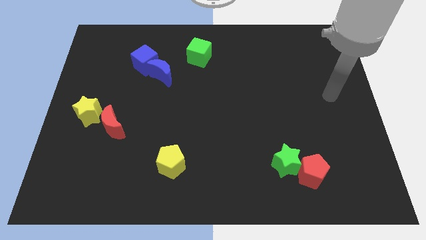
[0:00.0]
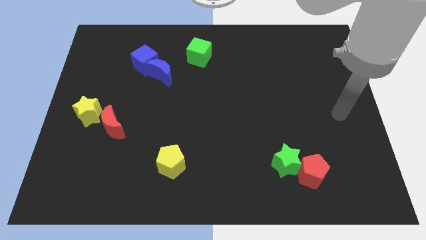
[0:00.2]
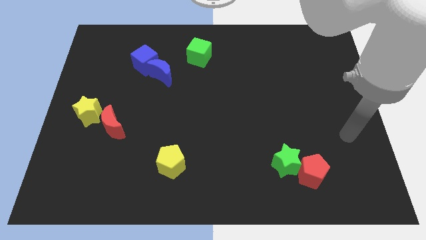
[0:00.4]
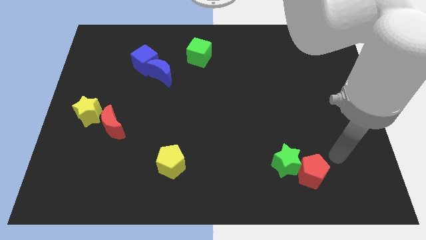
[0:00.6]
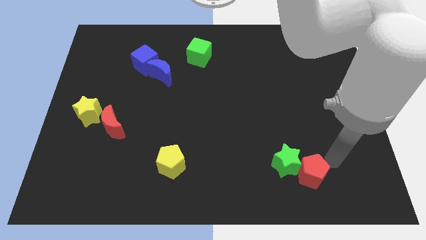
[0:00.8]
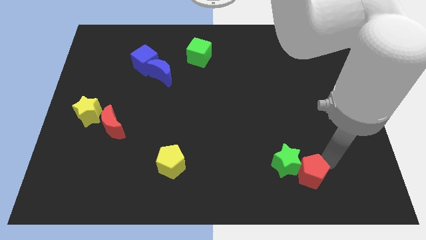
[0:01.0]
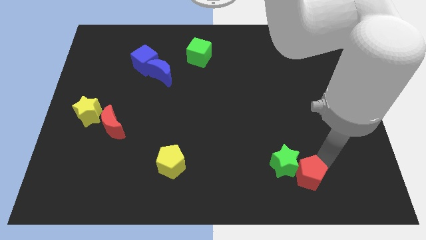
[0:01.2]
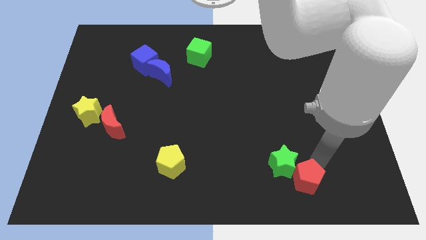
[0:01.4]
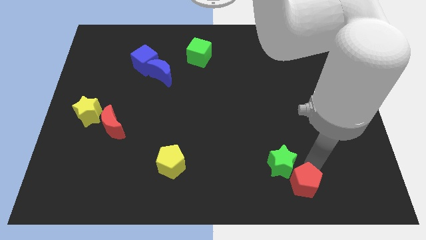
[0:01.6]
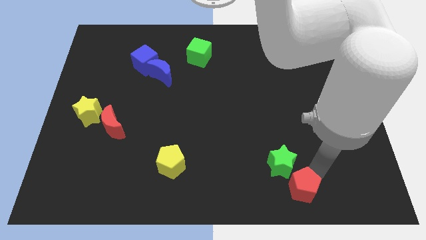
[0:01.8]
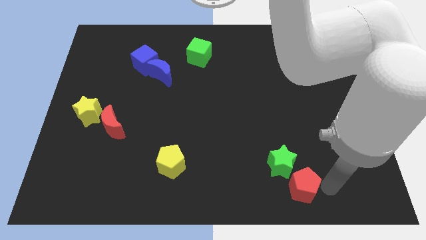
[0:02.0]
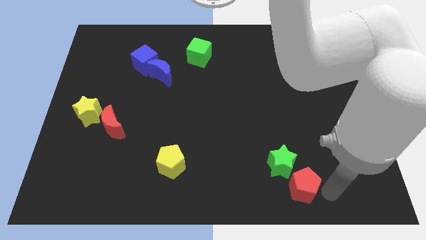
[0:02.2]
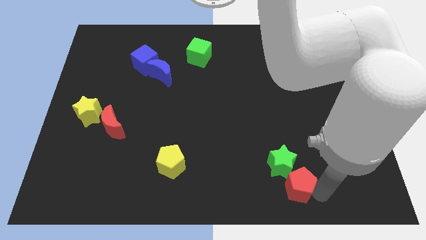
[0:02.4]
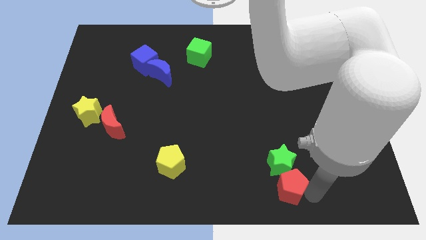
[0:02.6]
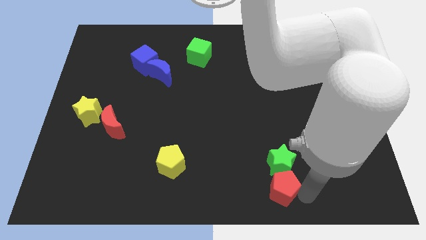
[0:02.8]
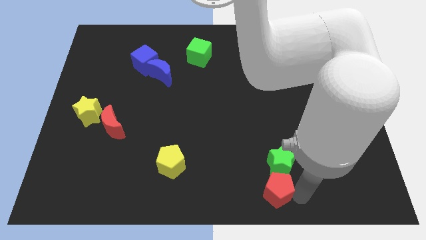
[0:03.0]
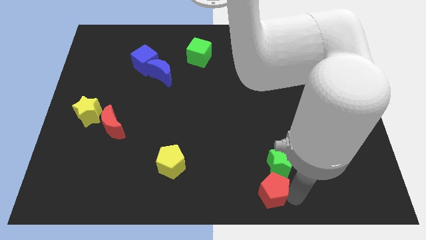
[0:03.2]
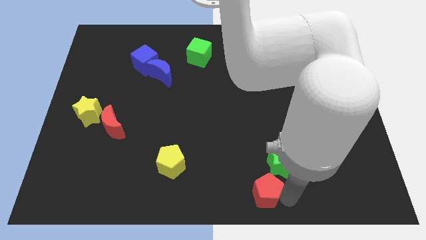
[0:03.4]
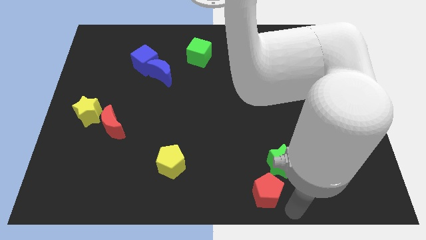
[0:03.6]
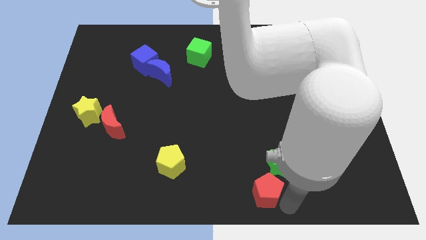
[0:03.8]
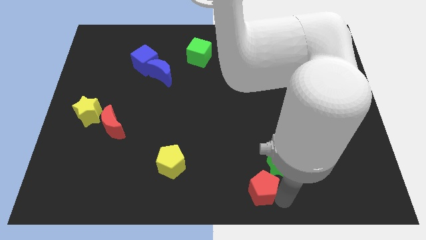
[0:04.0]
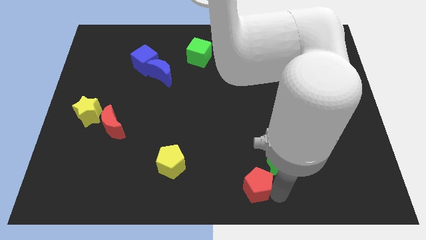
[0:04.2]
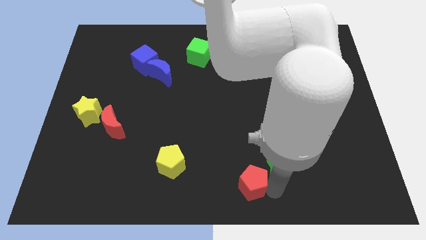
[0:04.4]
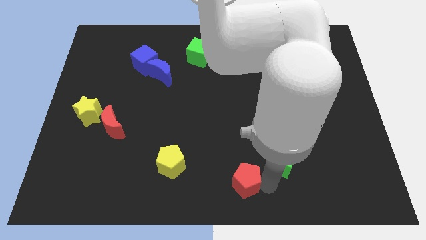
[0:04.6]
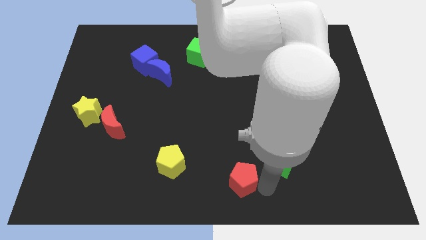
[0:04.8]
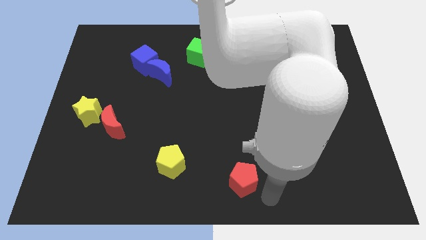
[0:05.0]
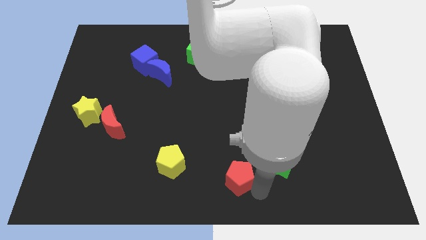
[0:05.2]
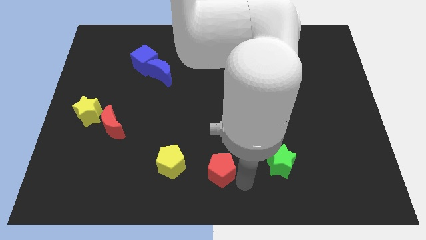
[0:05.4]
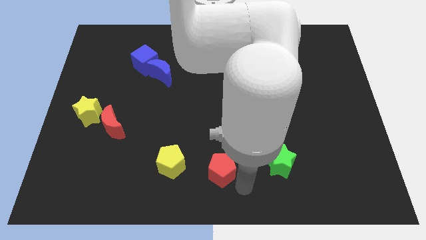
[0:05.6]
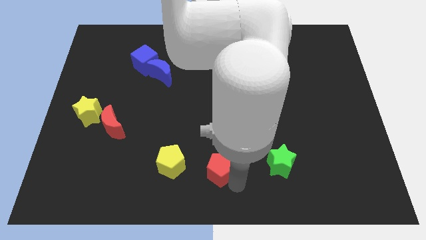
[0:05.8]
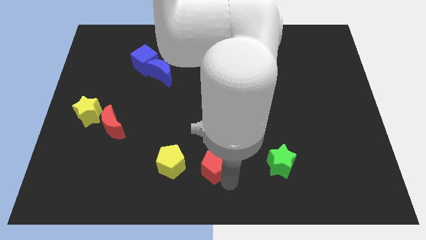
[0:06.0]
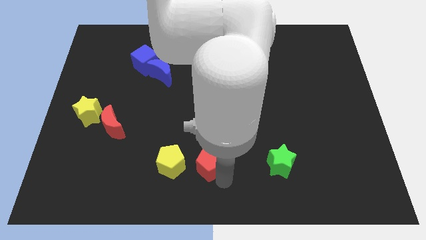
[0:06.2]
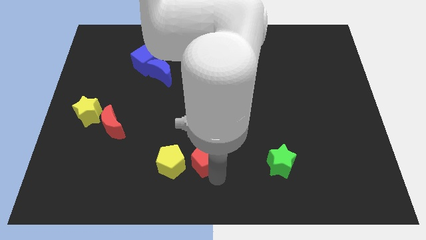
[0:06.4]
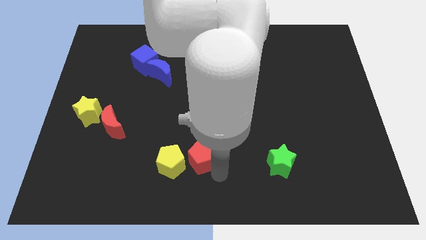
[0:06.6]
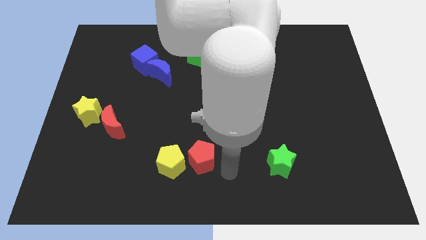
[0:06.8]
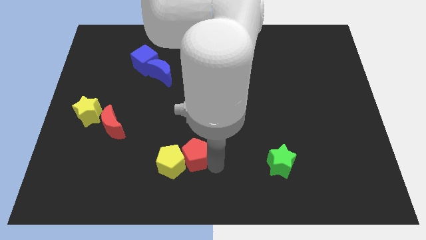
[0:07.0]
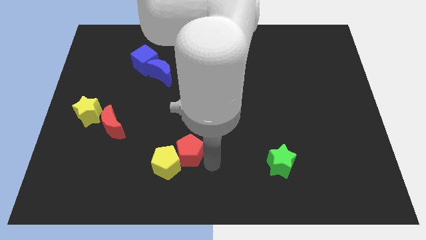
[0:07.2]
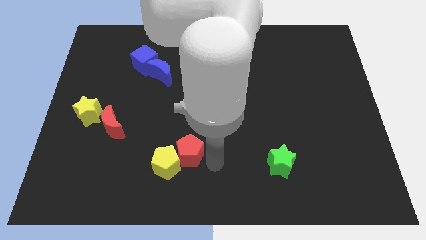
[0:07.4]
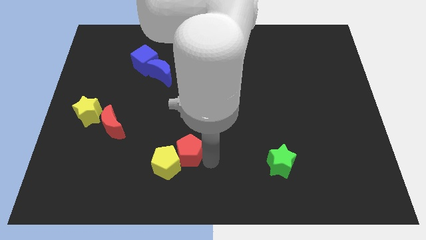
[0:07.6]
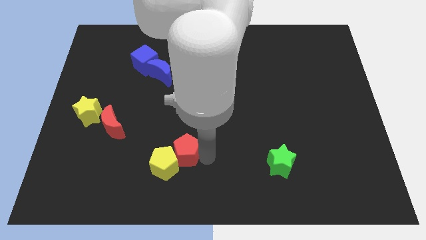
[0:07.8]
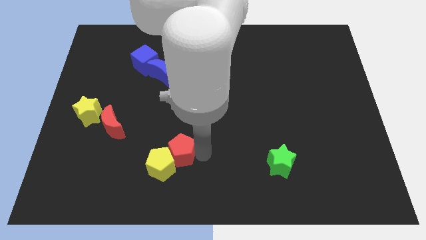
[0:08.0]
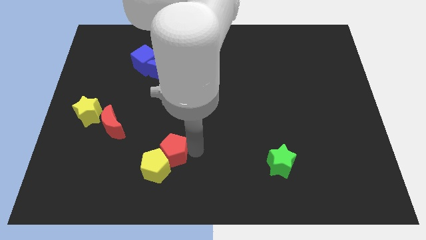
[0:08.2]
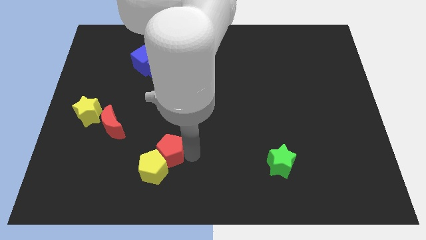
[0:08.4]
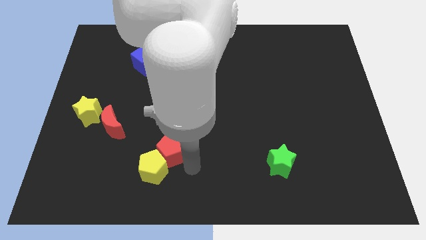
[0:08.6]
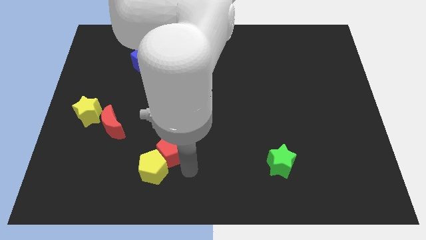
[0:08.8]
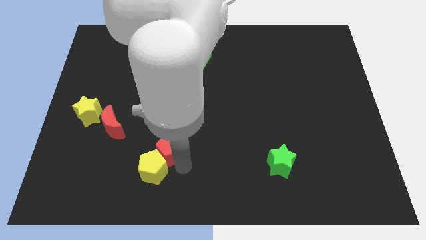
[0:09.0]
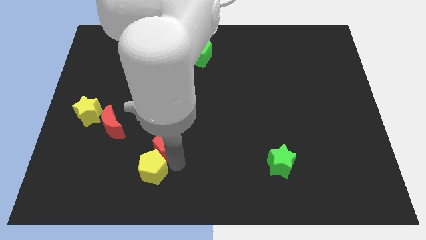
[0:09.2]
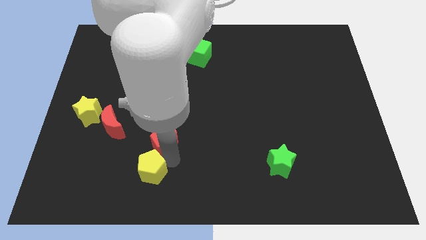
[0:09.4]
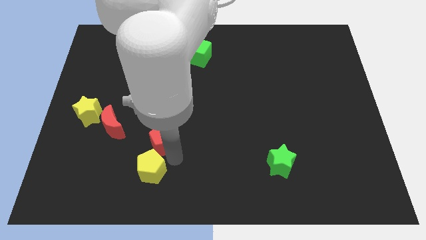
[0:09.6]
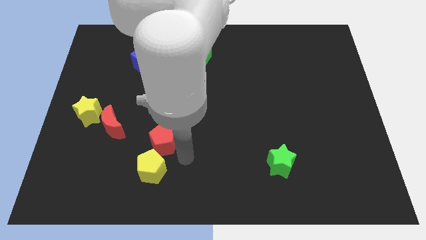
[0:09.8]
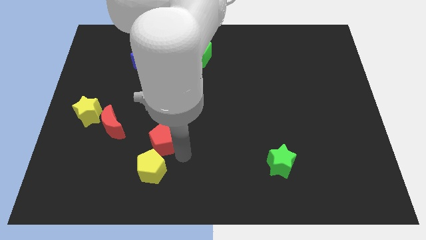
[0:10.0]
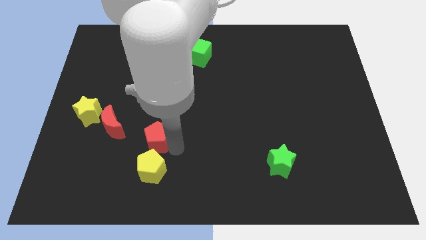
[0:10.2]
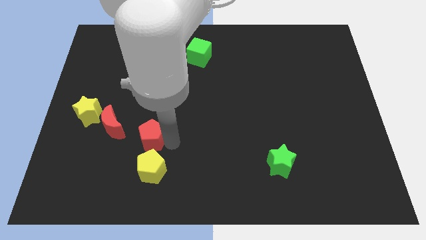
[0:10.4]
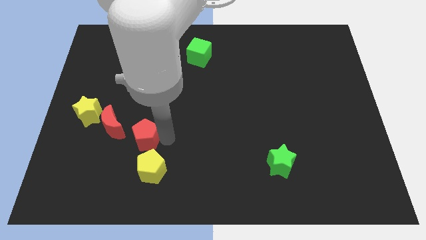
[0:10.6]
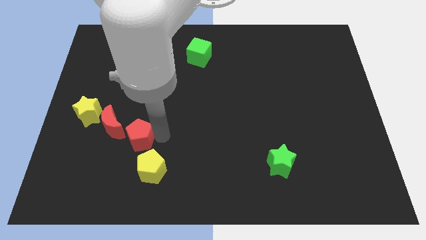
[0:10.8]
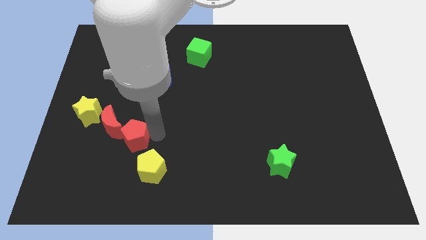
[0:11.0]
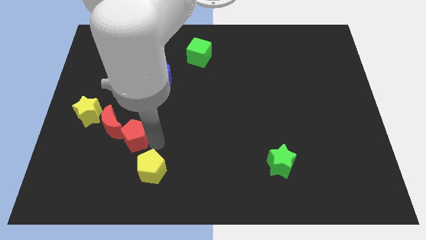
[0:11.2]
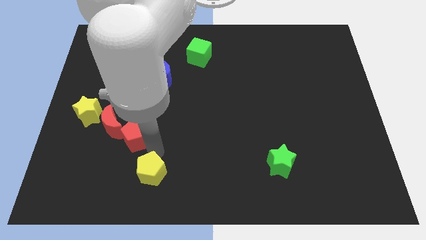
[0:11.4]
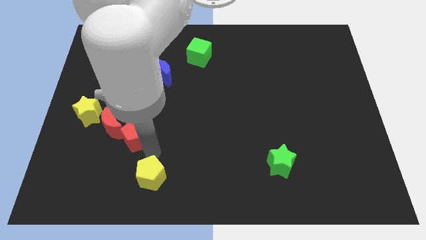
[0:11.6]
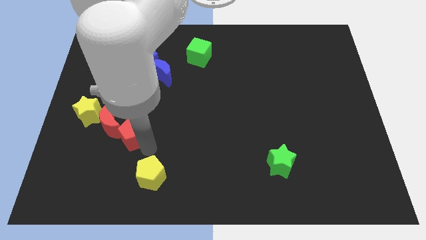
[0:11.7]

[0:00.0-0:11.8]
put the red pentagon towards the red moon

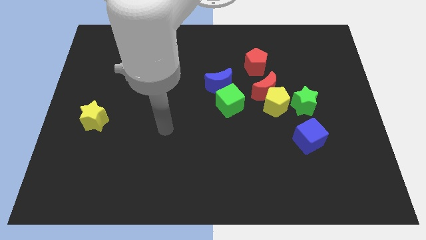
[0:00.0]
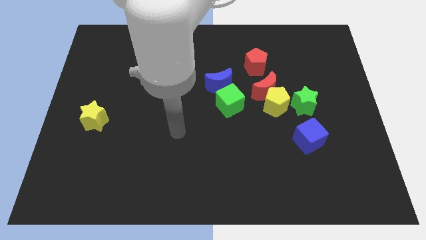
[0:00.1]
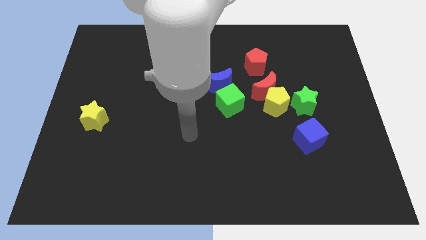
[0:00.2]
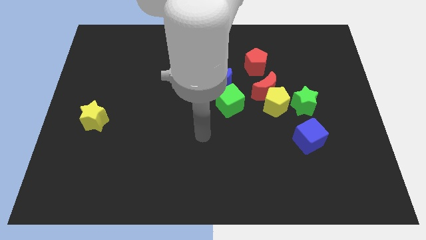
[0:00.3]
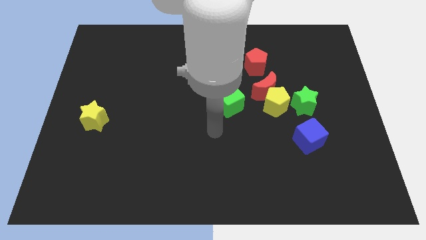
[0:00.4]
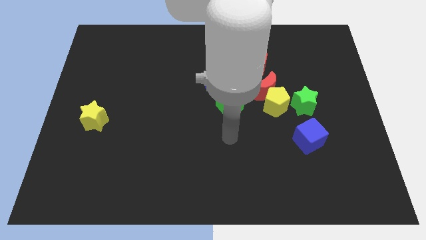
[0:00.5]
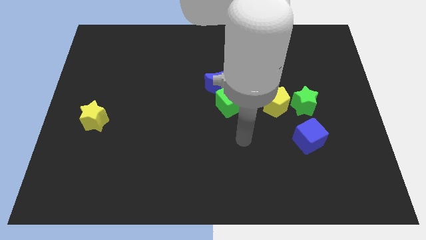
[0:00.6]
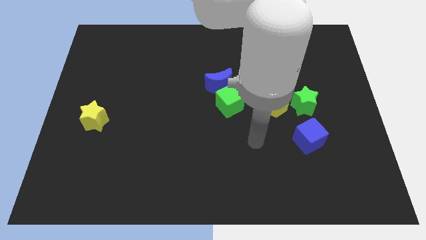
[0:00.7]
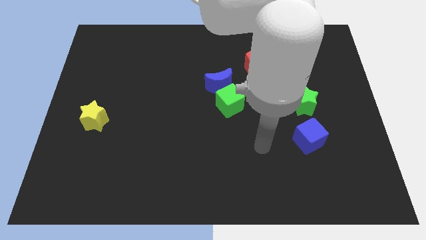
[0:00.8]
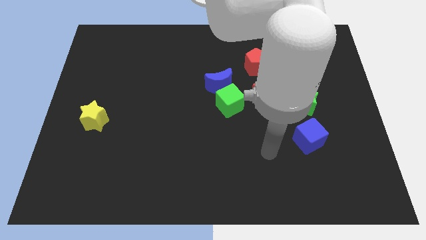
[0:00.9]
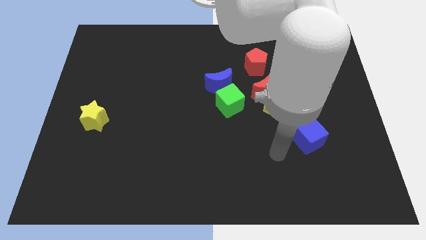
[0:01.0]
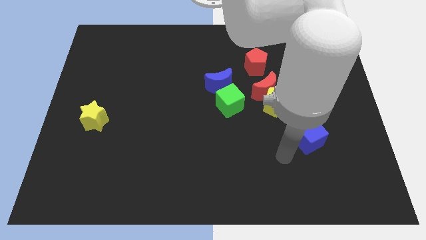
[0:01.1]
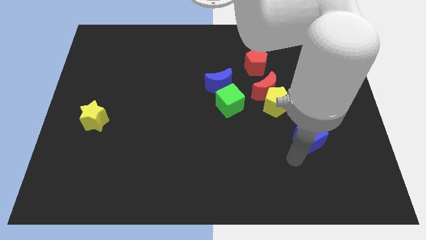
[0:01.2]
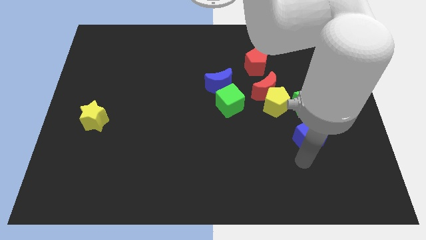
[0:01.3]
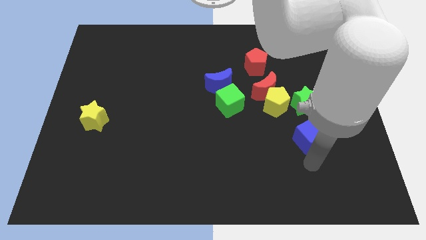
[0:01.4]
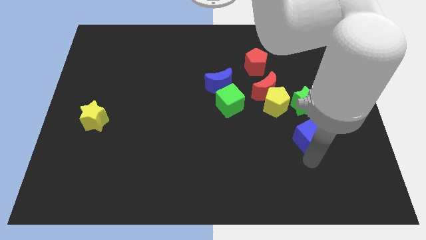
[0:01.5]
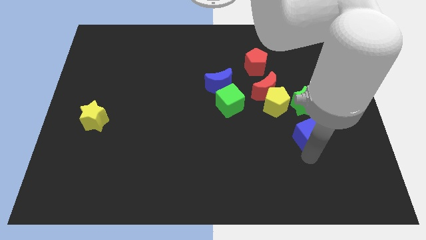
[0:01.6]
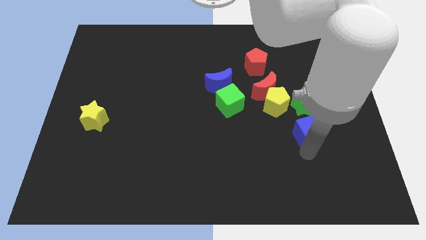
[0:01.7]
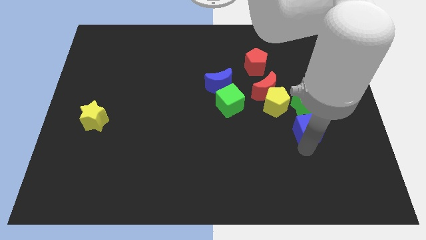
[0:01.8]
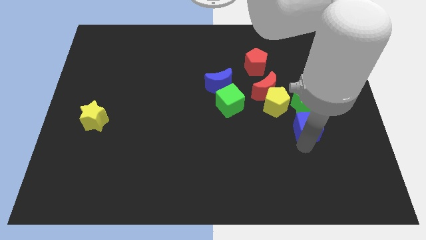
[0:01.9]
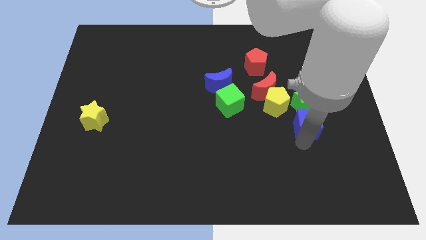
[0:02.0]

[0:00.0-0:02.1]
slide the blue cube close to the green star

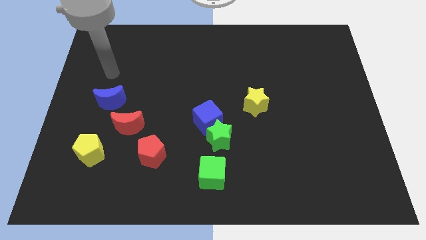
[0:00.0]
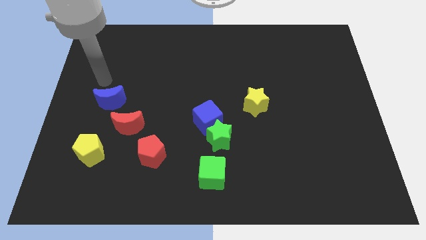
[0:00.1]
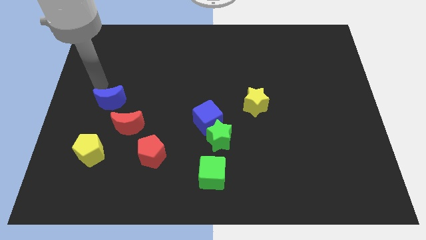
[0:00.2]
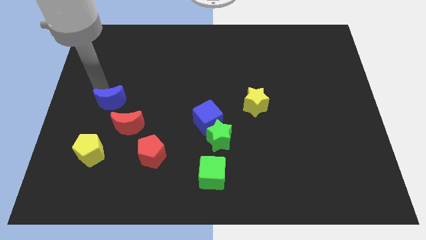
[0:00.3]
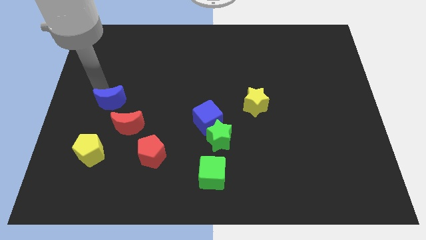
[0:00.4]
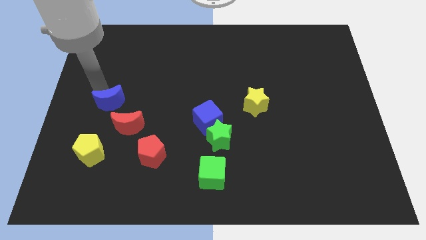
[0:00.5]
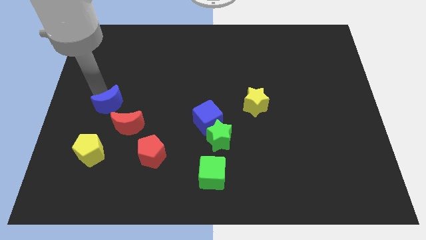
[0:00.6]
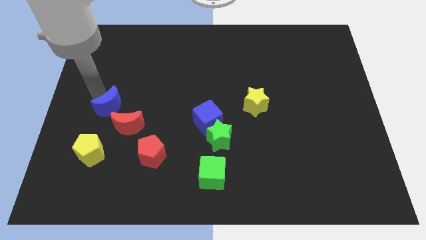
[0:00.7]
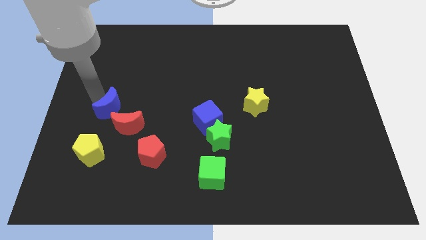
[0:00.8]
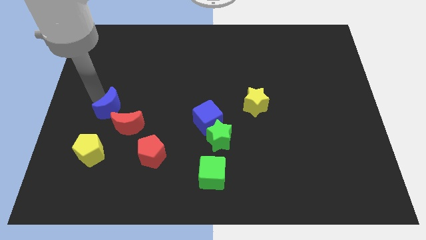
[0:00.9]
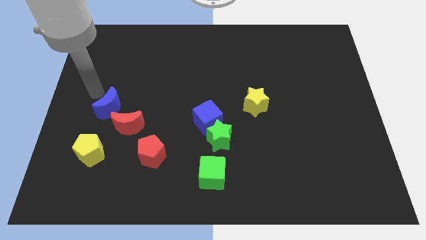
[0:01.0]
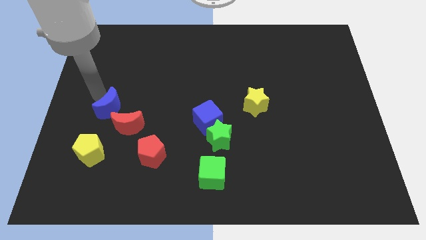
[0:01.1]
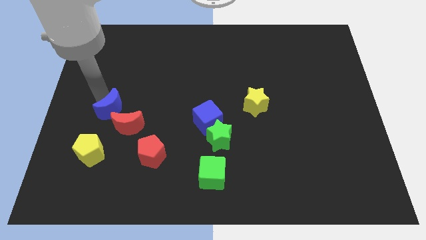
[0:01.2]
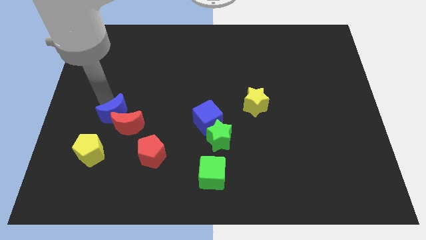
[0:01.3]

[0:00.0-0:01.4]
slide the blue moon close to the red moon
